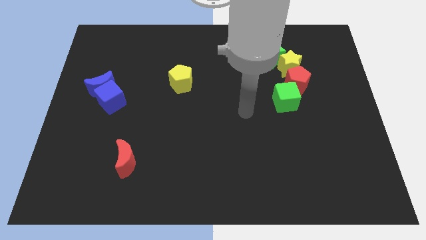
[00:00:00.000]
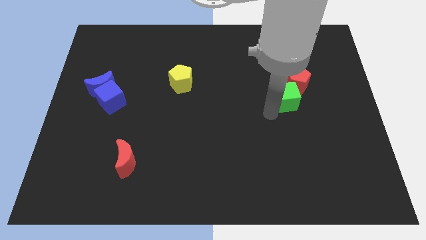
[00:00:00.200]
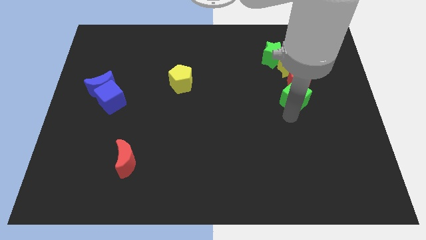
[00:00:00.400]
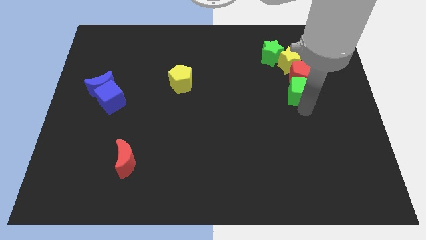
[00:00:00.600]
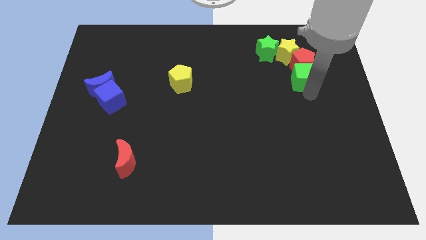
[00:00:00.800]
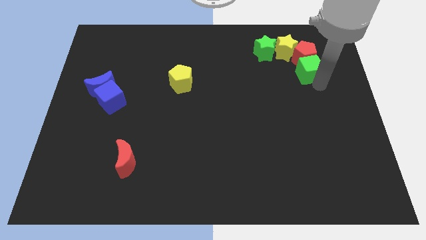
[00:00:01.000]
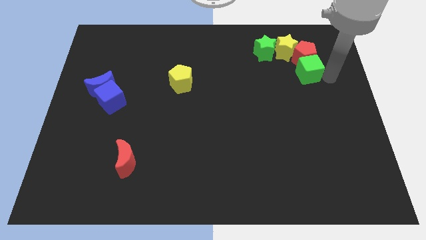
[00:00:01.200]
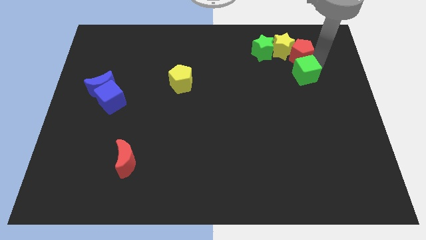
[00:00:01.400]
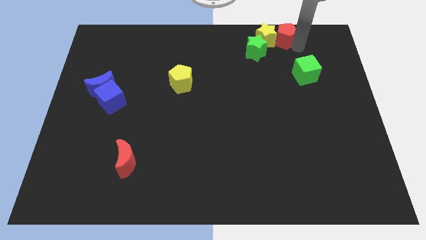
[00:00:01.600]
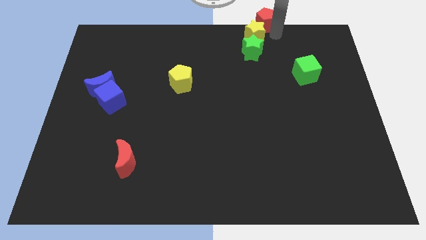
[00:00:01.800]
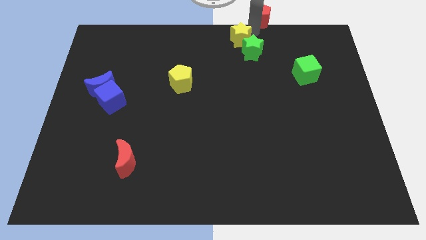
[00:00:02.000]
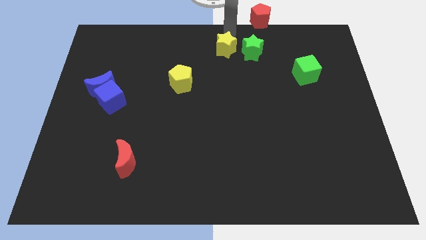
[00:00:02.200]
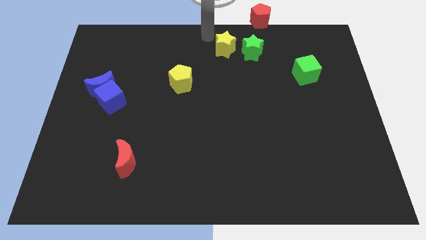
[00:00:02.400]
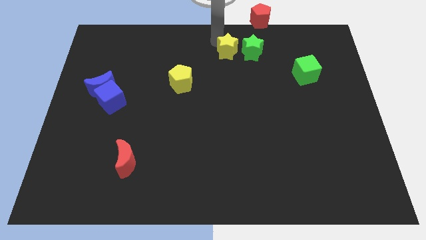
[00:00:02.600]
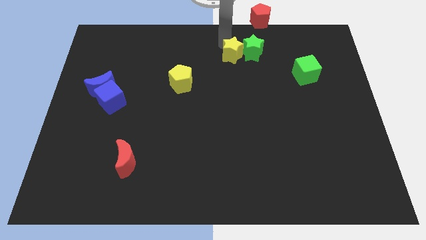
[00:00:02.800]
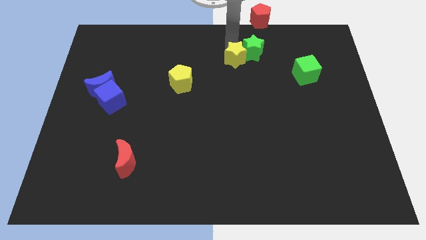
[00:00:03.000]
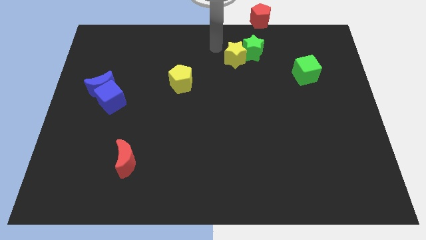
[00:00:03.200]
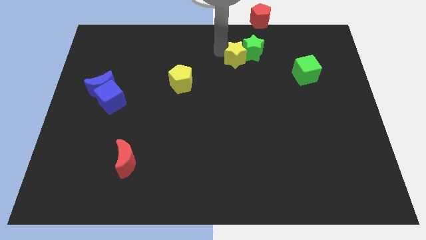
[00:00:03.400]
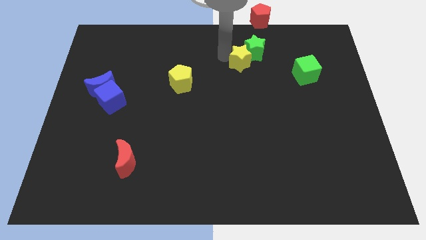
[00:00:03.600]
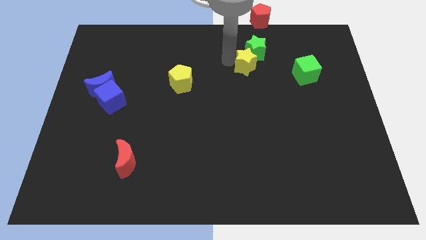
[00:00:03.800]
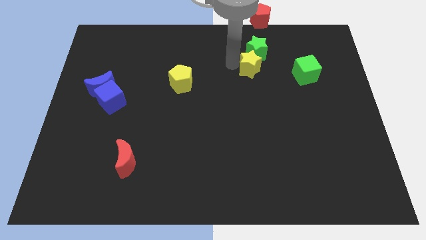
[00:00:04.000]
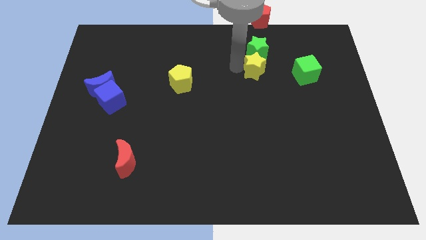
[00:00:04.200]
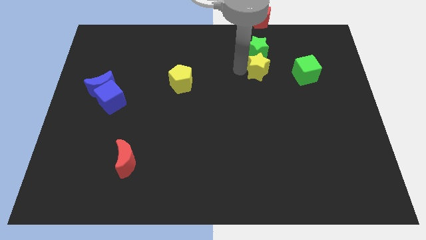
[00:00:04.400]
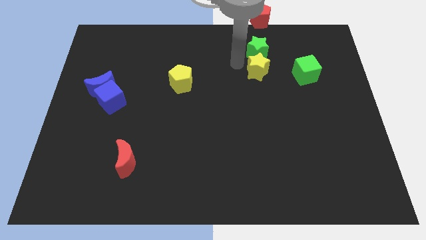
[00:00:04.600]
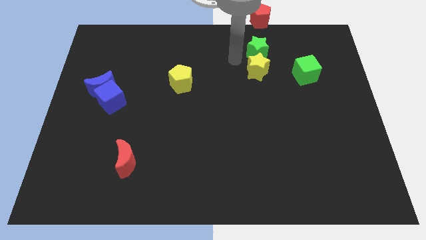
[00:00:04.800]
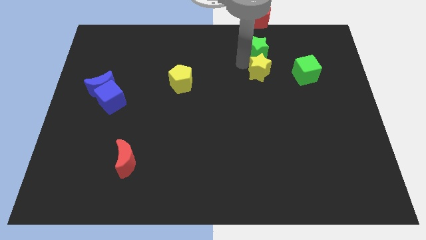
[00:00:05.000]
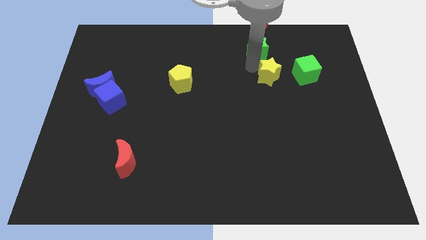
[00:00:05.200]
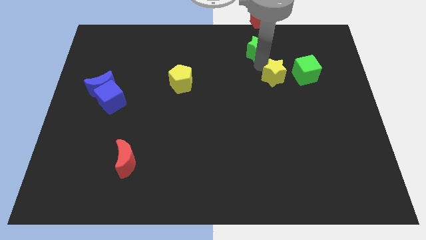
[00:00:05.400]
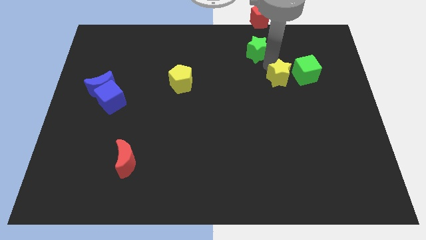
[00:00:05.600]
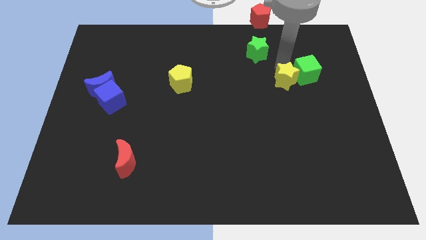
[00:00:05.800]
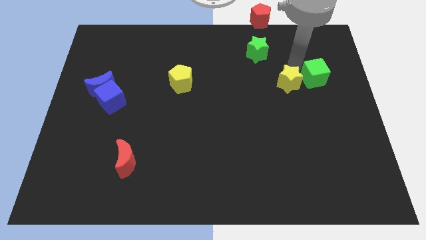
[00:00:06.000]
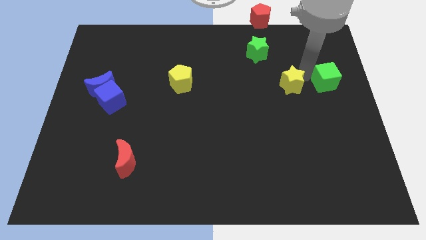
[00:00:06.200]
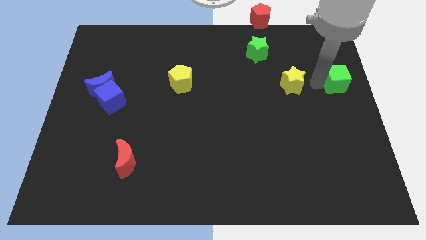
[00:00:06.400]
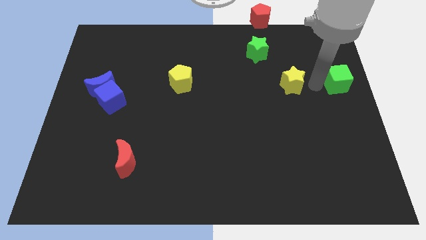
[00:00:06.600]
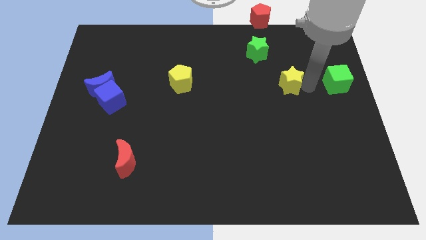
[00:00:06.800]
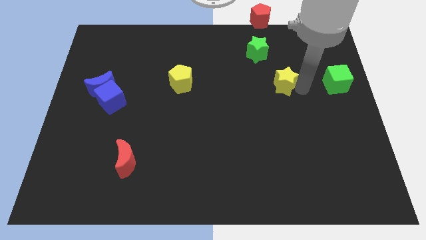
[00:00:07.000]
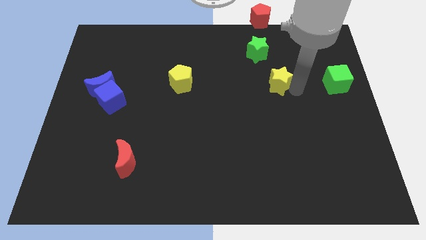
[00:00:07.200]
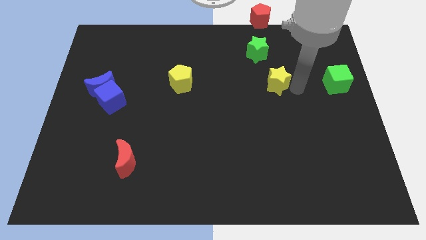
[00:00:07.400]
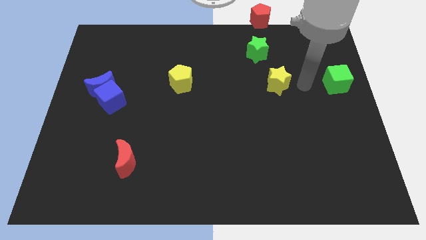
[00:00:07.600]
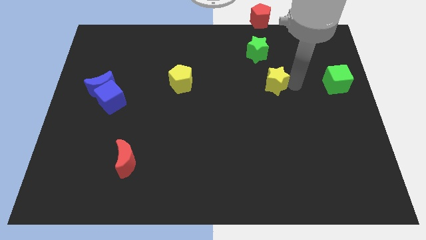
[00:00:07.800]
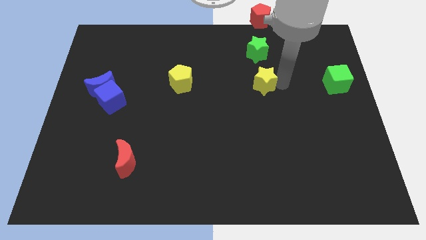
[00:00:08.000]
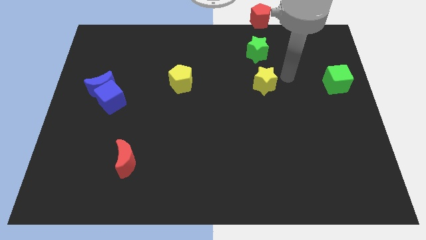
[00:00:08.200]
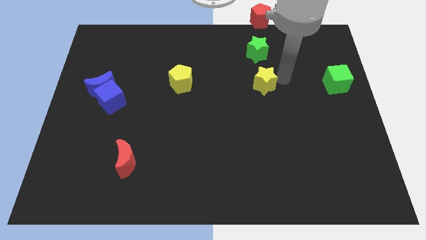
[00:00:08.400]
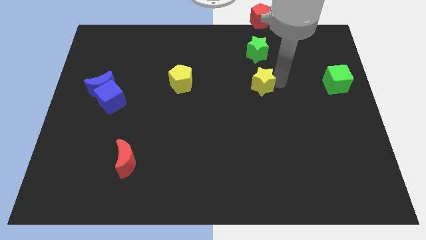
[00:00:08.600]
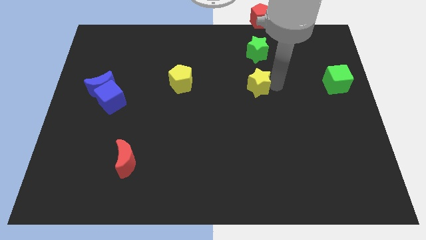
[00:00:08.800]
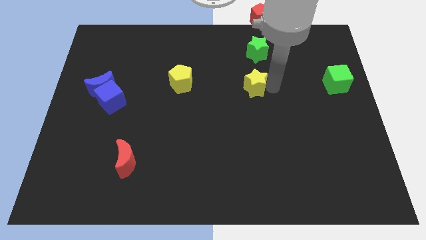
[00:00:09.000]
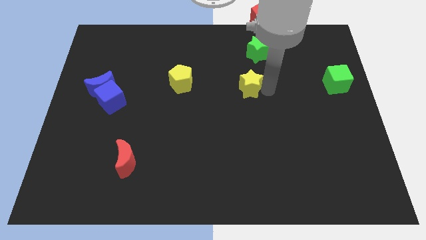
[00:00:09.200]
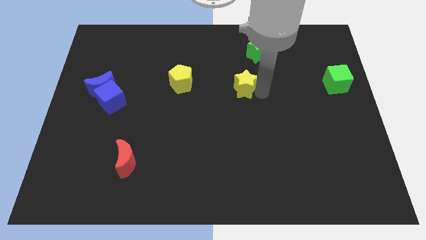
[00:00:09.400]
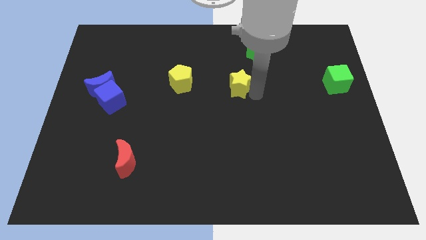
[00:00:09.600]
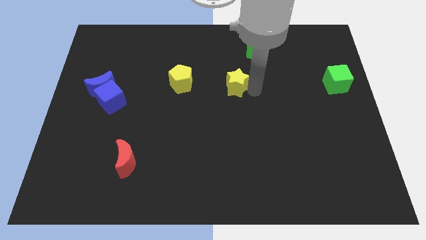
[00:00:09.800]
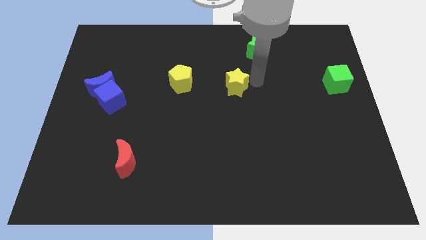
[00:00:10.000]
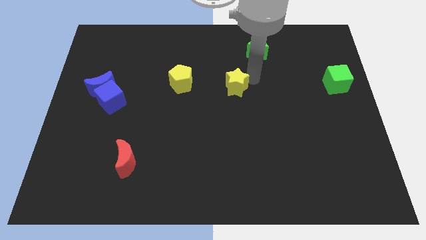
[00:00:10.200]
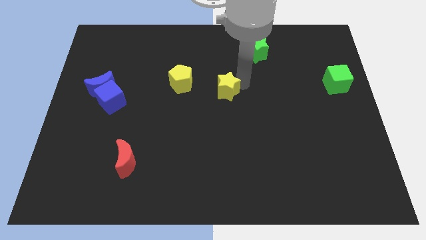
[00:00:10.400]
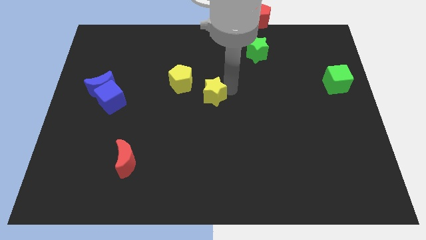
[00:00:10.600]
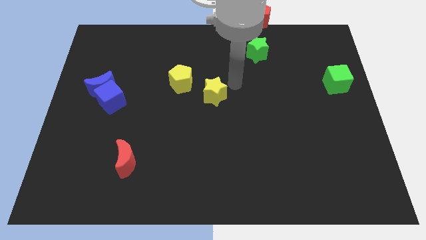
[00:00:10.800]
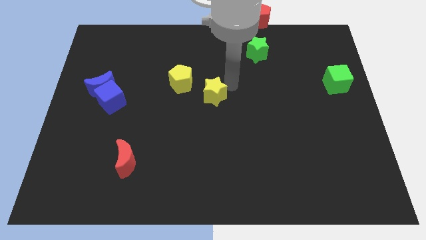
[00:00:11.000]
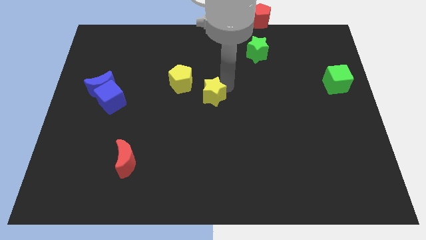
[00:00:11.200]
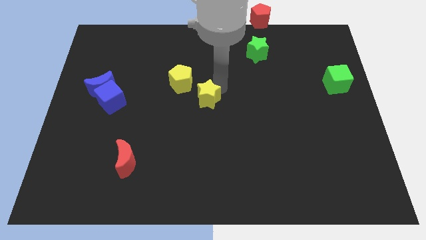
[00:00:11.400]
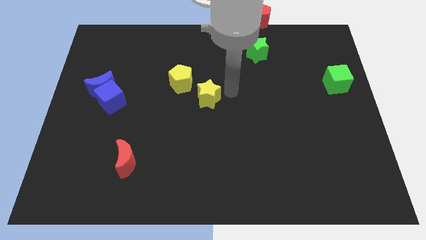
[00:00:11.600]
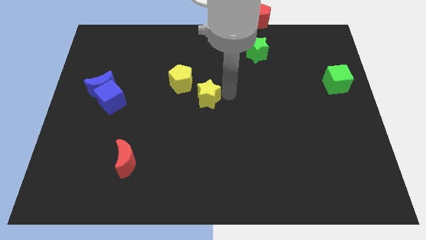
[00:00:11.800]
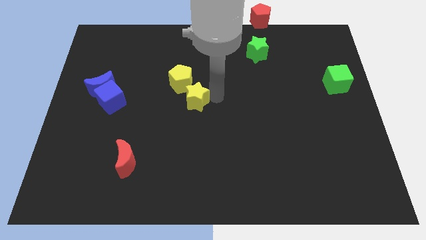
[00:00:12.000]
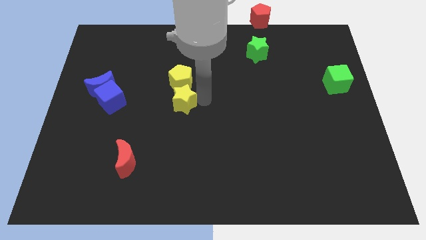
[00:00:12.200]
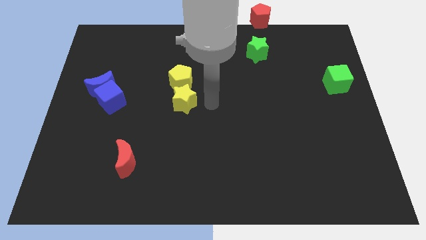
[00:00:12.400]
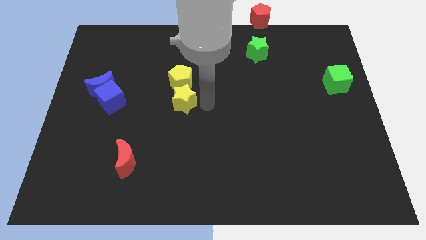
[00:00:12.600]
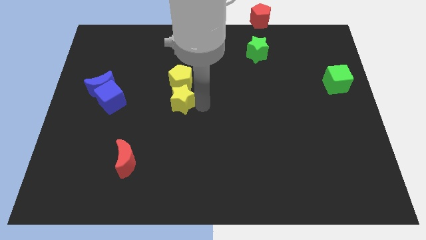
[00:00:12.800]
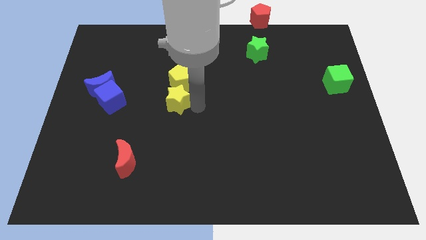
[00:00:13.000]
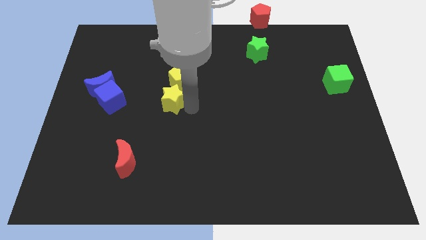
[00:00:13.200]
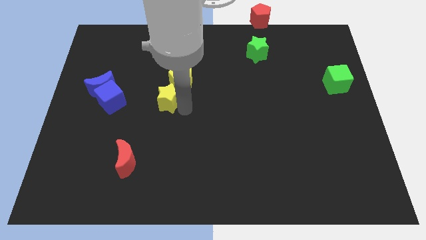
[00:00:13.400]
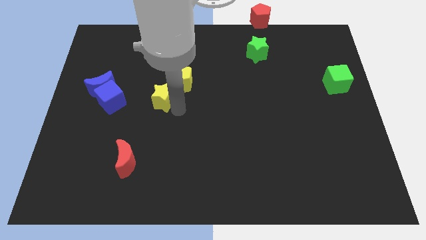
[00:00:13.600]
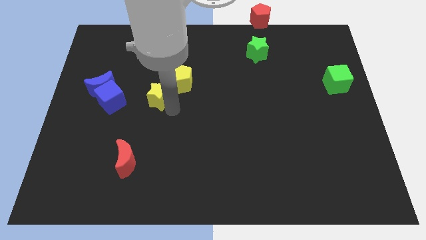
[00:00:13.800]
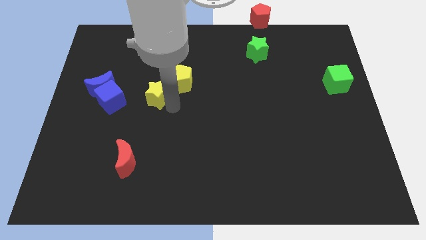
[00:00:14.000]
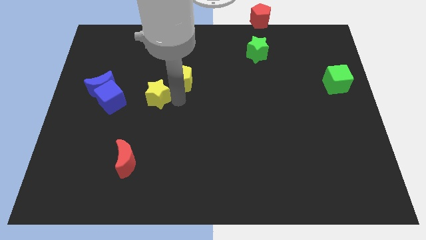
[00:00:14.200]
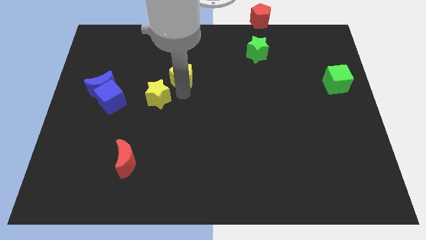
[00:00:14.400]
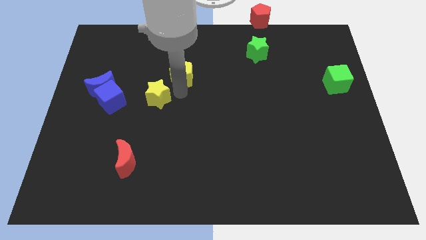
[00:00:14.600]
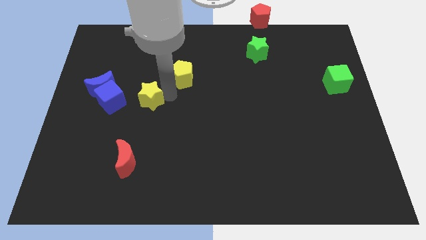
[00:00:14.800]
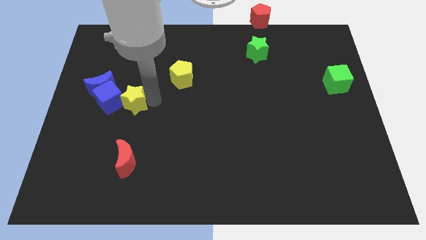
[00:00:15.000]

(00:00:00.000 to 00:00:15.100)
slide the yellow star next to the blue cube
